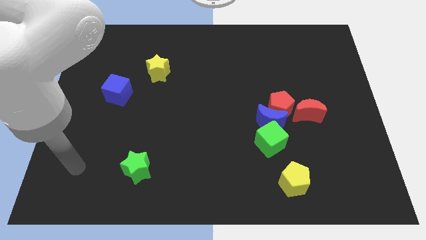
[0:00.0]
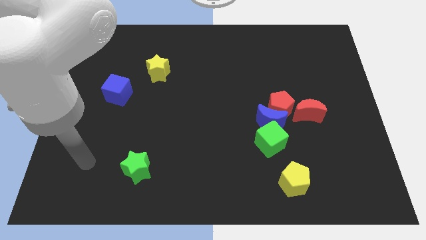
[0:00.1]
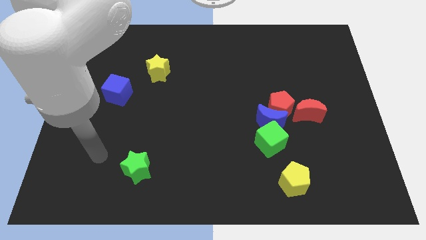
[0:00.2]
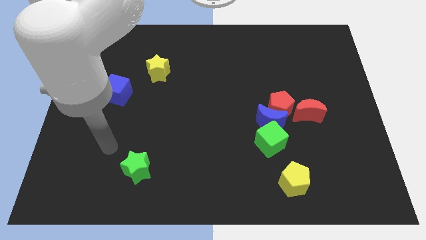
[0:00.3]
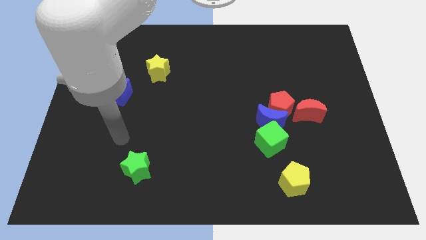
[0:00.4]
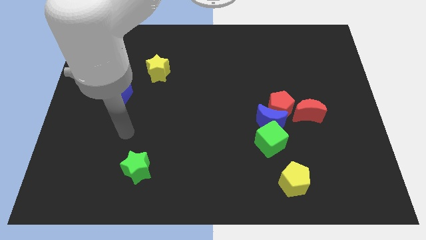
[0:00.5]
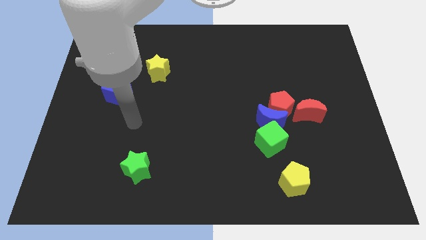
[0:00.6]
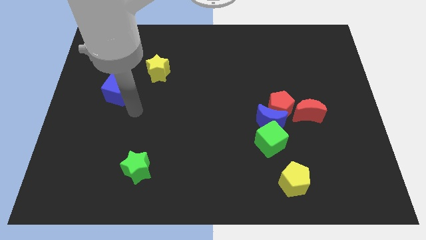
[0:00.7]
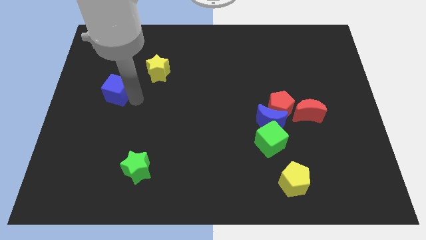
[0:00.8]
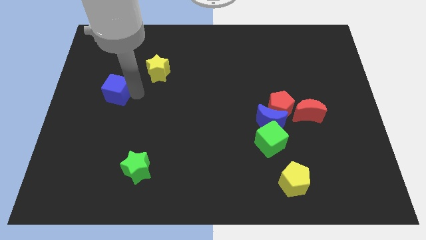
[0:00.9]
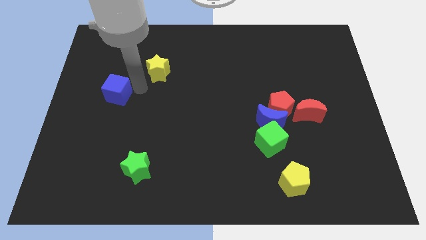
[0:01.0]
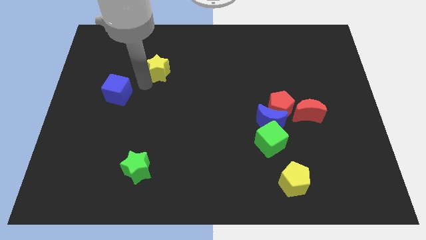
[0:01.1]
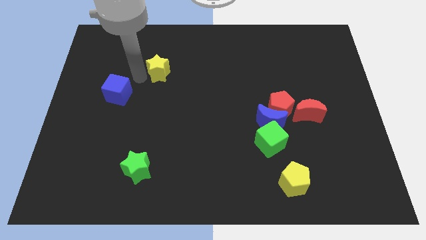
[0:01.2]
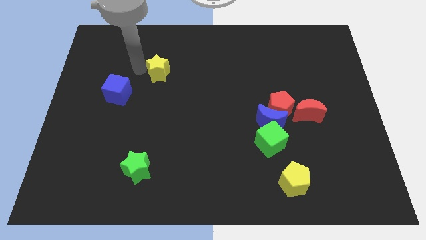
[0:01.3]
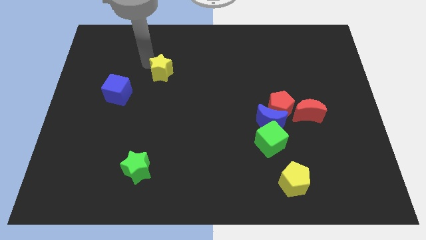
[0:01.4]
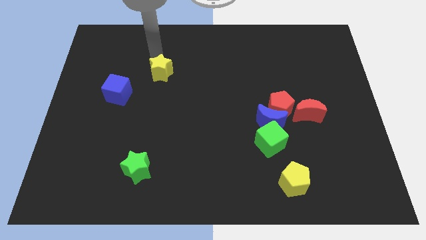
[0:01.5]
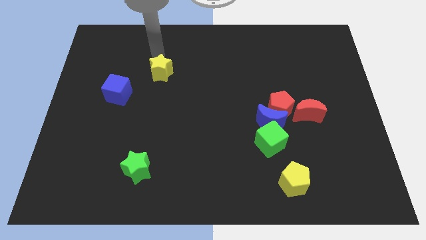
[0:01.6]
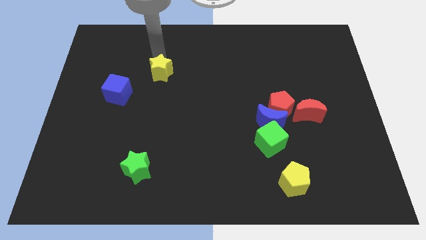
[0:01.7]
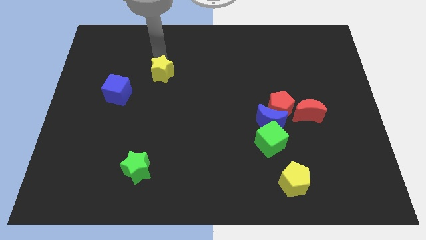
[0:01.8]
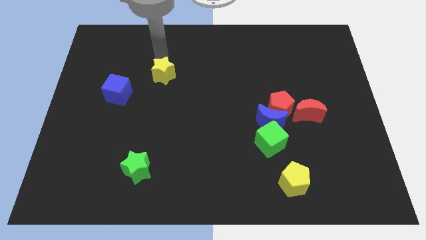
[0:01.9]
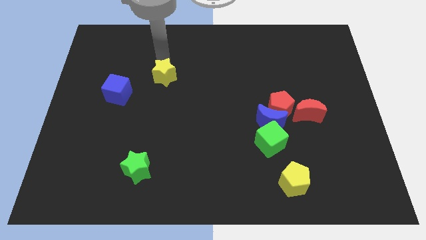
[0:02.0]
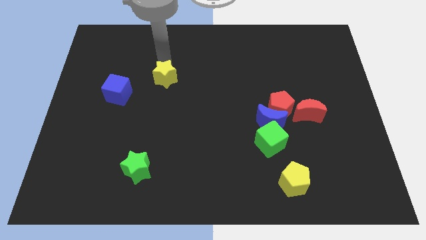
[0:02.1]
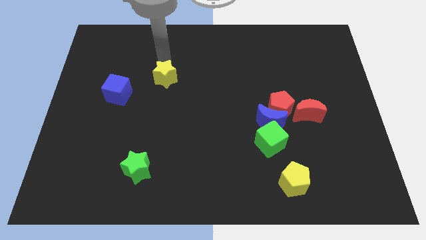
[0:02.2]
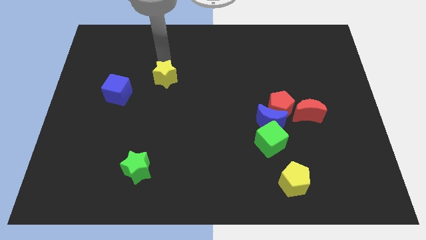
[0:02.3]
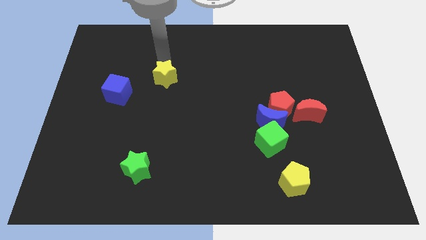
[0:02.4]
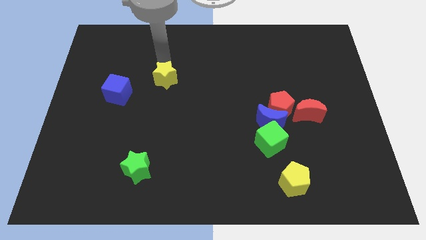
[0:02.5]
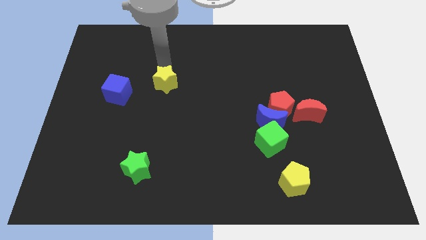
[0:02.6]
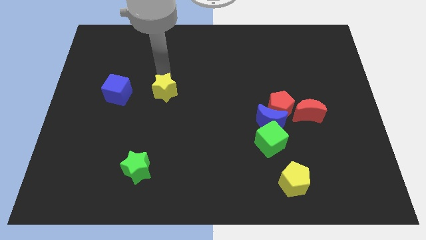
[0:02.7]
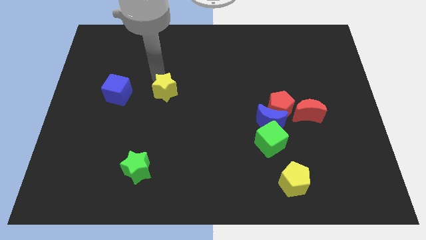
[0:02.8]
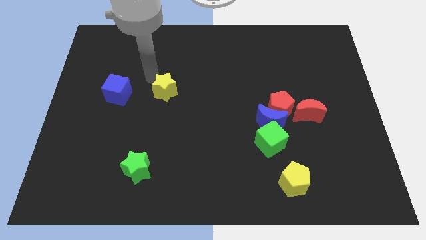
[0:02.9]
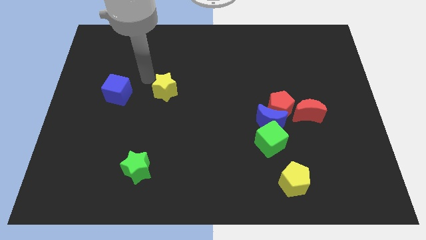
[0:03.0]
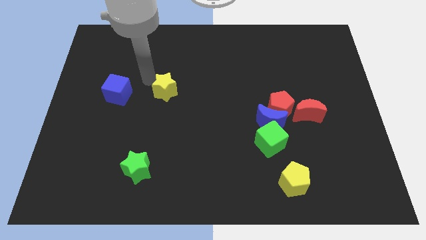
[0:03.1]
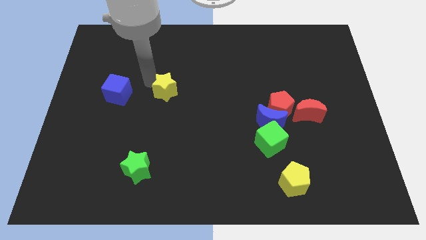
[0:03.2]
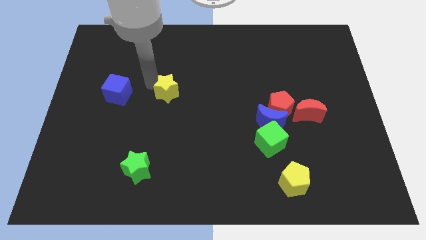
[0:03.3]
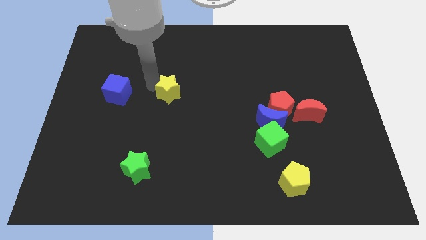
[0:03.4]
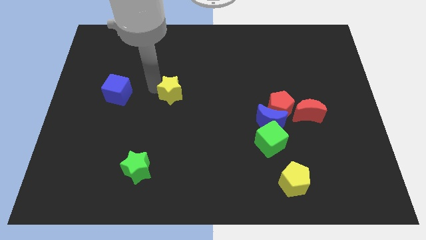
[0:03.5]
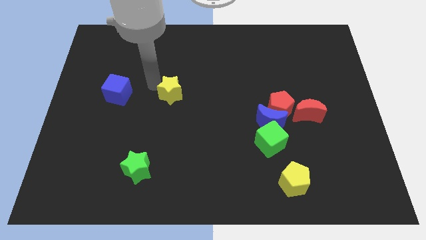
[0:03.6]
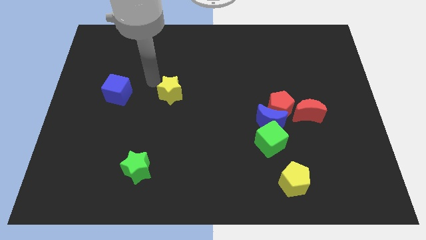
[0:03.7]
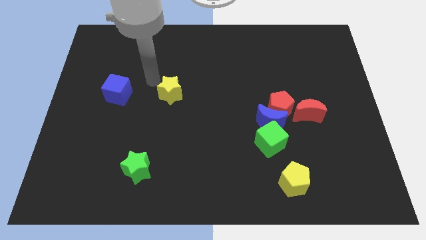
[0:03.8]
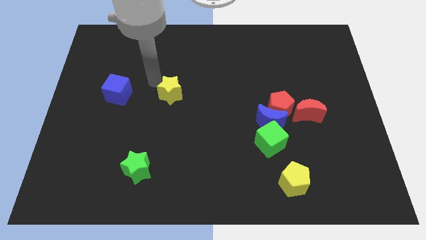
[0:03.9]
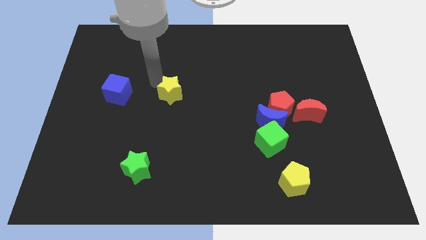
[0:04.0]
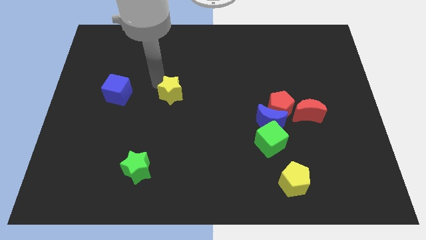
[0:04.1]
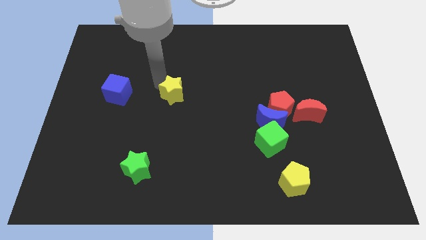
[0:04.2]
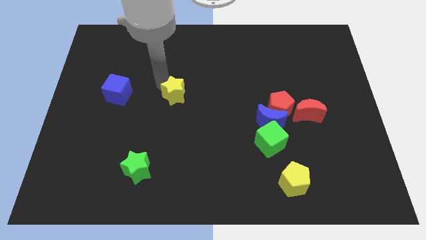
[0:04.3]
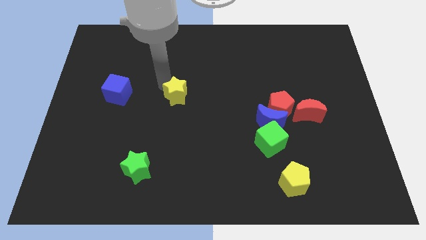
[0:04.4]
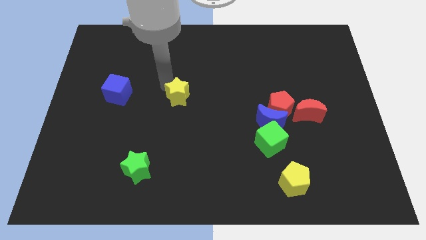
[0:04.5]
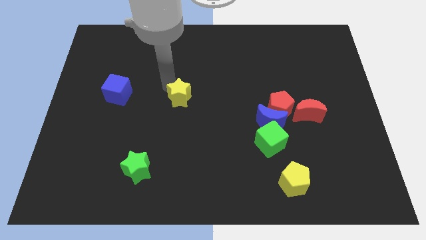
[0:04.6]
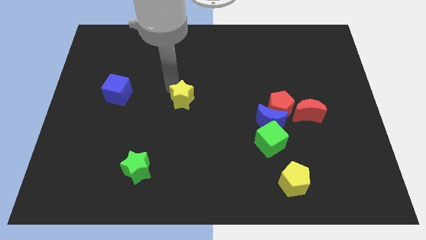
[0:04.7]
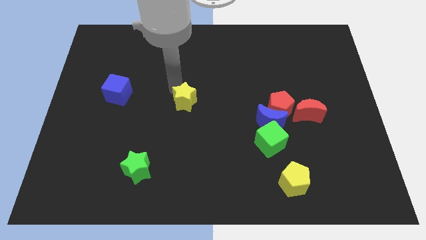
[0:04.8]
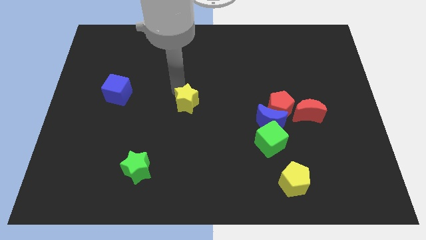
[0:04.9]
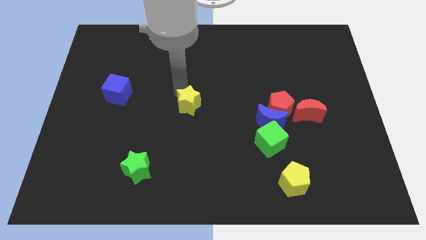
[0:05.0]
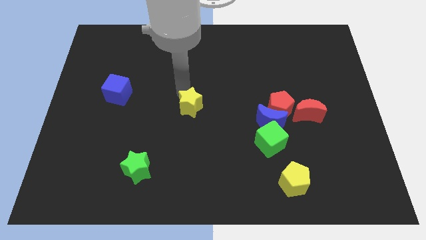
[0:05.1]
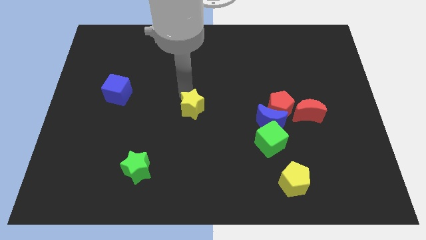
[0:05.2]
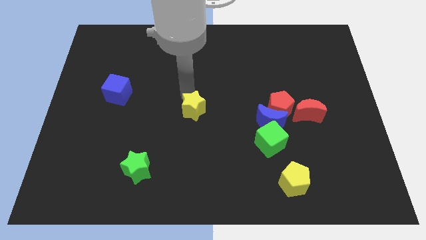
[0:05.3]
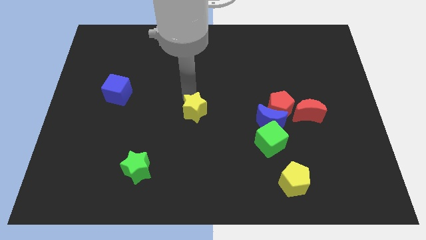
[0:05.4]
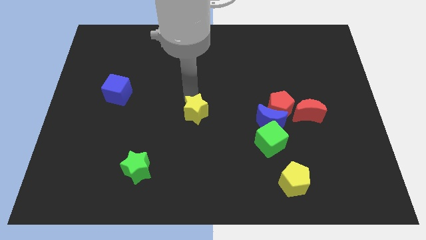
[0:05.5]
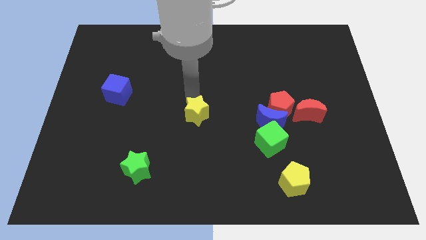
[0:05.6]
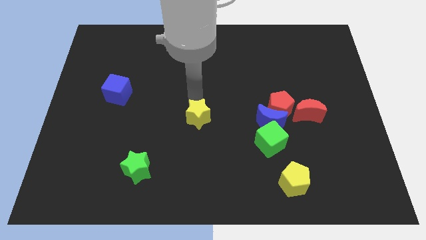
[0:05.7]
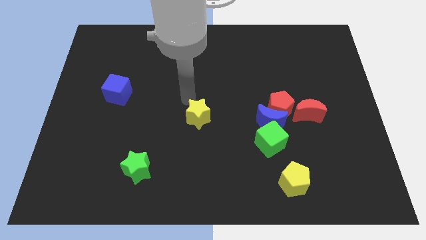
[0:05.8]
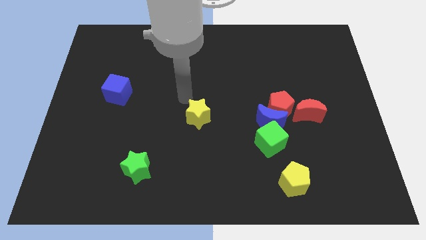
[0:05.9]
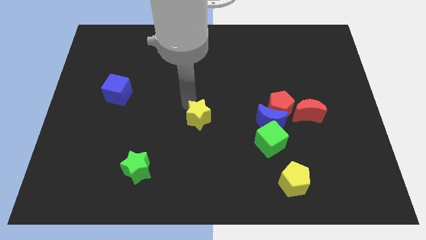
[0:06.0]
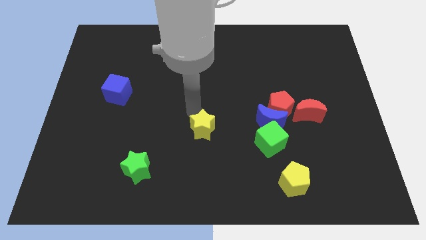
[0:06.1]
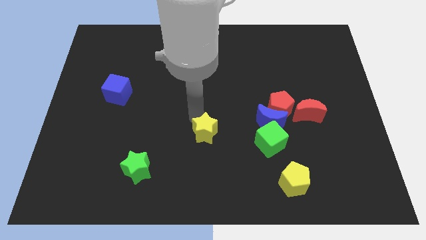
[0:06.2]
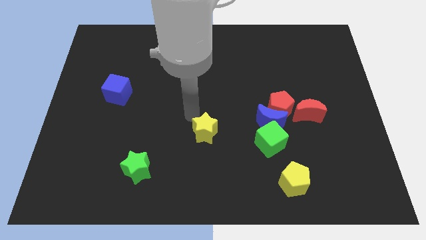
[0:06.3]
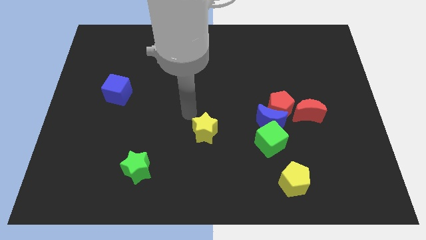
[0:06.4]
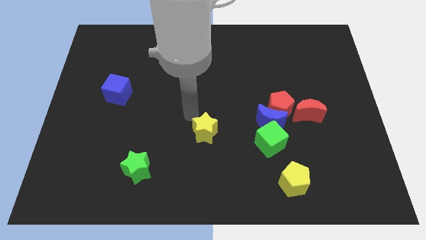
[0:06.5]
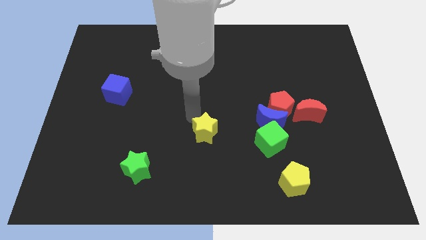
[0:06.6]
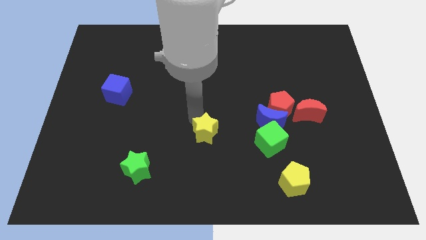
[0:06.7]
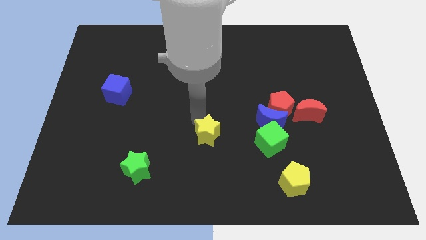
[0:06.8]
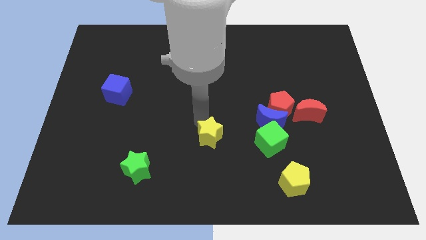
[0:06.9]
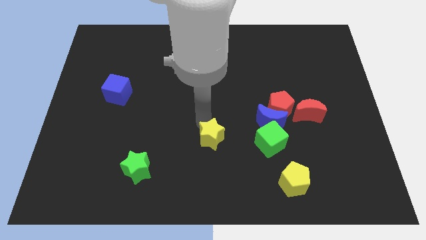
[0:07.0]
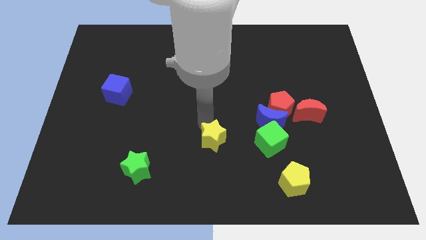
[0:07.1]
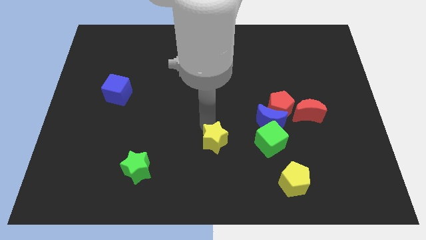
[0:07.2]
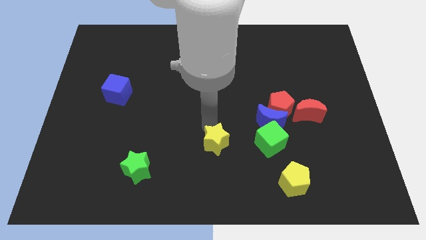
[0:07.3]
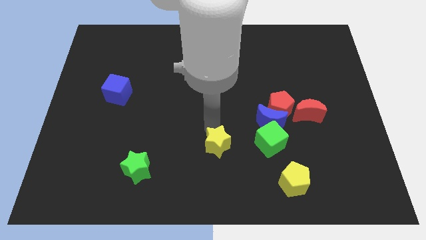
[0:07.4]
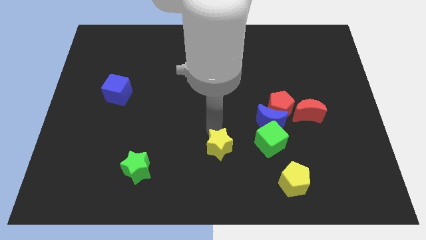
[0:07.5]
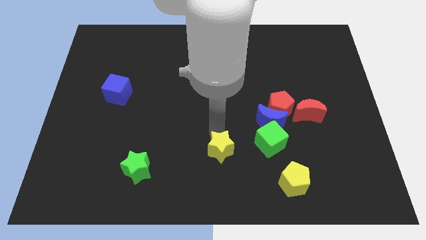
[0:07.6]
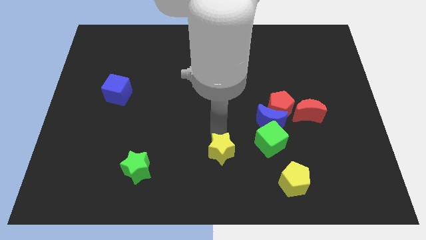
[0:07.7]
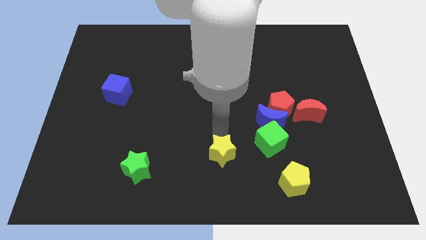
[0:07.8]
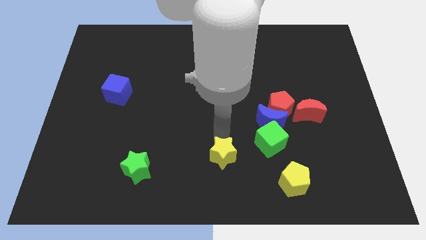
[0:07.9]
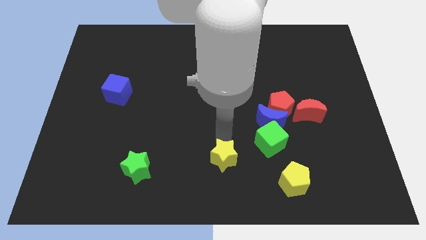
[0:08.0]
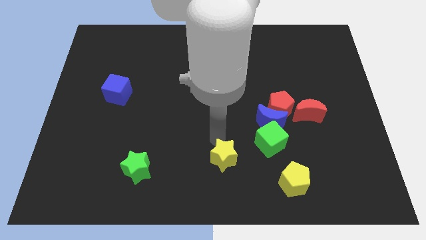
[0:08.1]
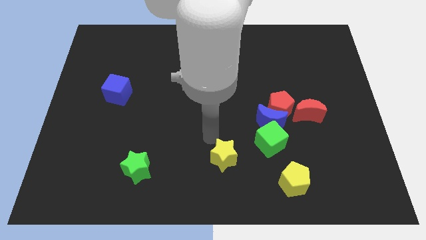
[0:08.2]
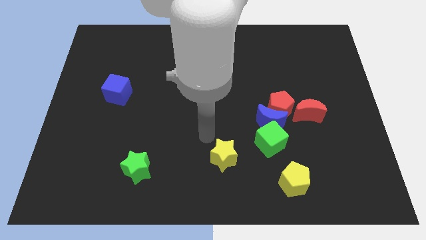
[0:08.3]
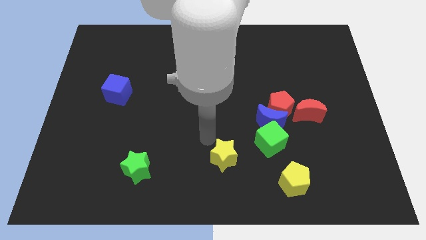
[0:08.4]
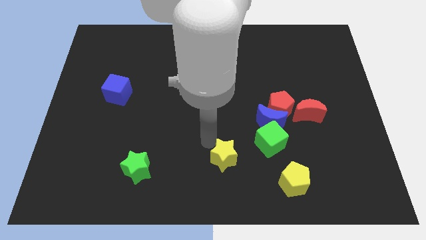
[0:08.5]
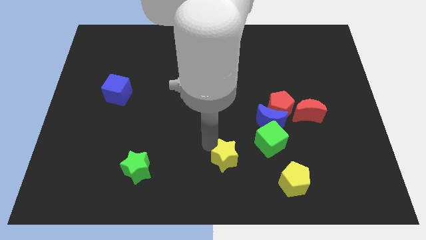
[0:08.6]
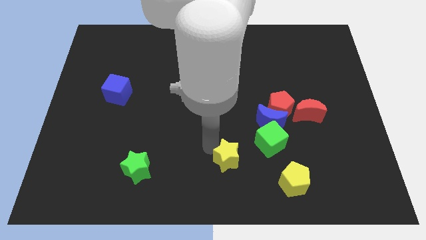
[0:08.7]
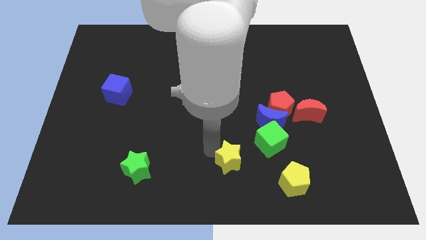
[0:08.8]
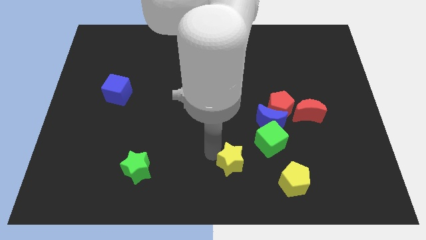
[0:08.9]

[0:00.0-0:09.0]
slide the yellow star to the left of the yellow pentagon
